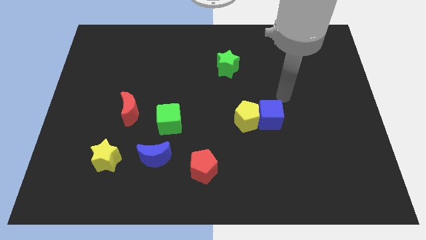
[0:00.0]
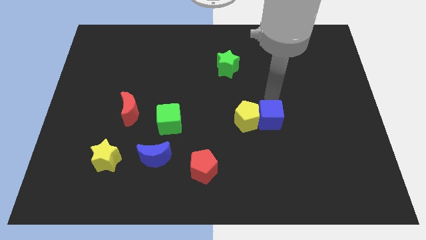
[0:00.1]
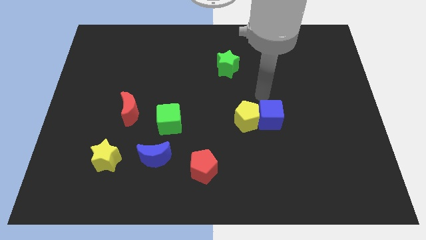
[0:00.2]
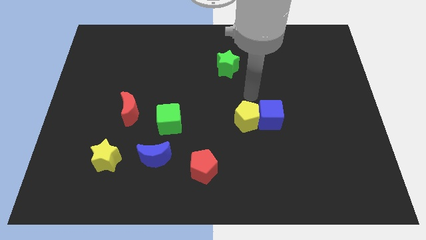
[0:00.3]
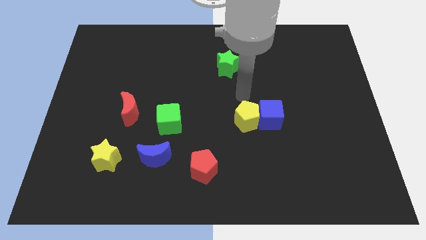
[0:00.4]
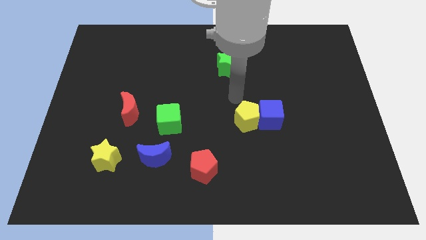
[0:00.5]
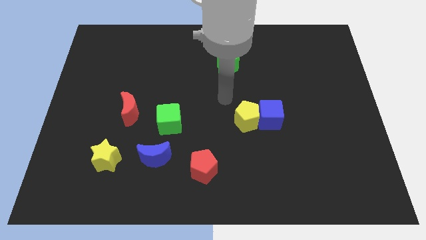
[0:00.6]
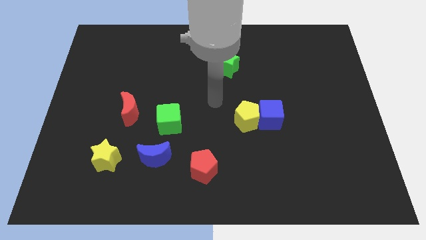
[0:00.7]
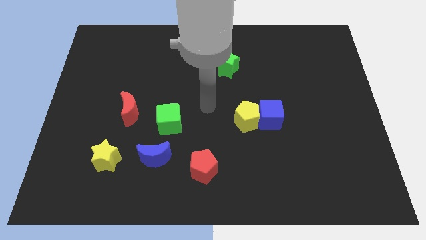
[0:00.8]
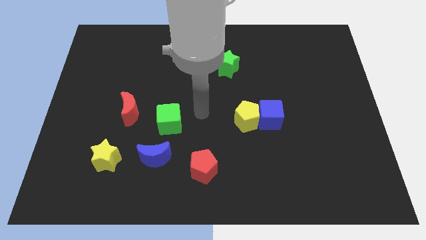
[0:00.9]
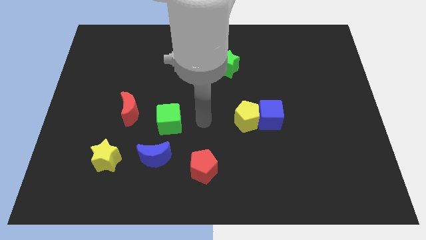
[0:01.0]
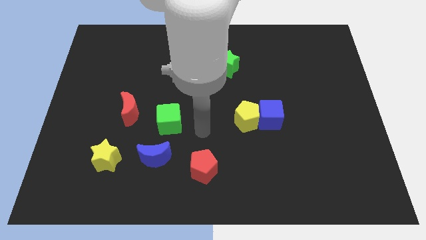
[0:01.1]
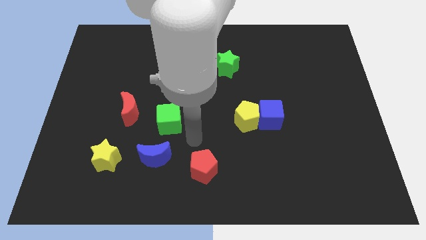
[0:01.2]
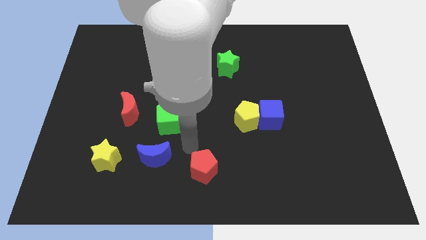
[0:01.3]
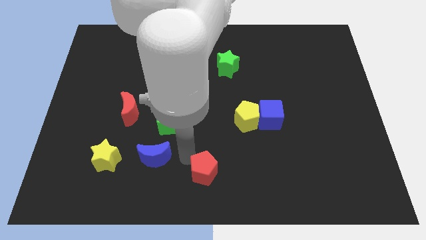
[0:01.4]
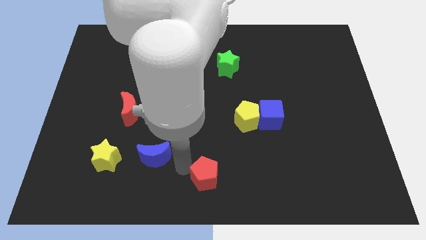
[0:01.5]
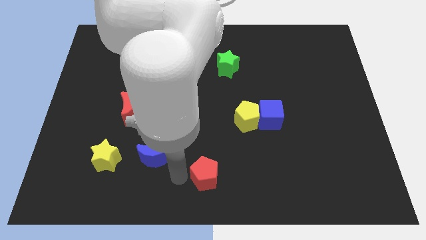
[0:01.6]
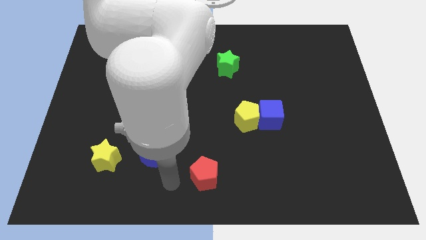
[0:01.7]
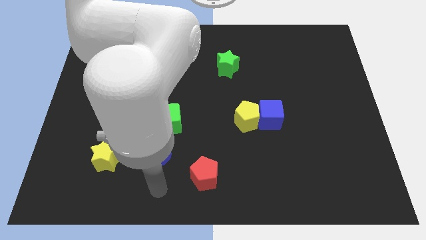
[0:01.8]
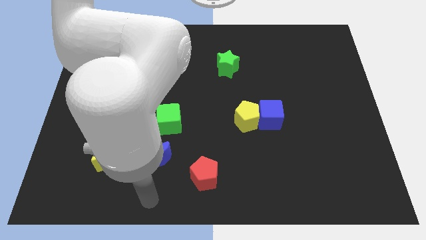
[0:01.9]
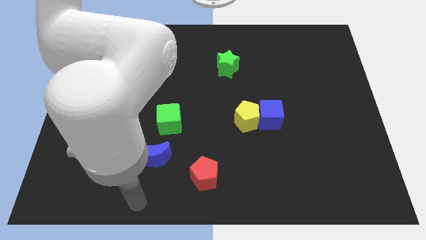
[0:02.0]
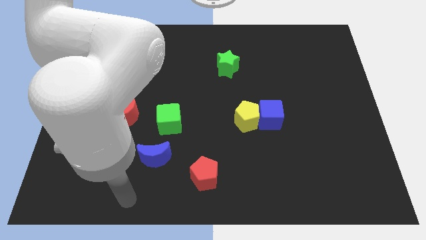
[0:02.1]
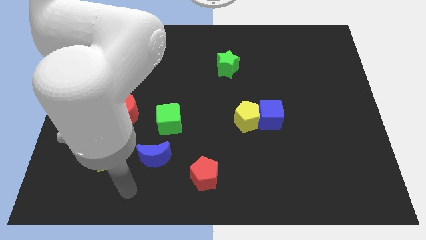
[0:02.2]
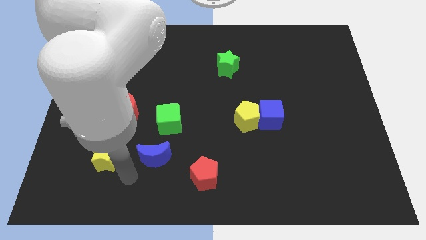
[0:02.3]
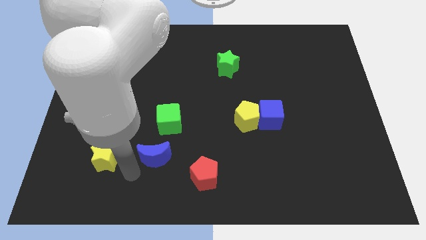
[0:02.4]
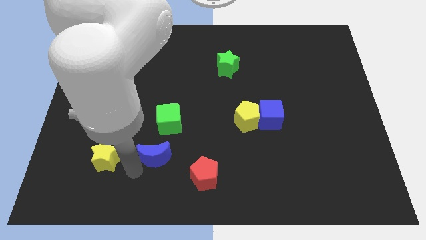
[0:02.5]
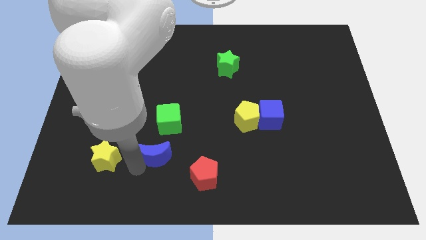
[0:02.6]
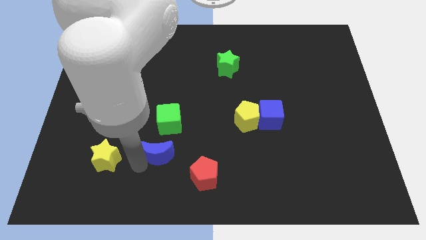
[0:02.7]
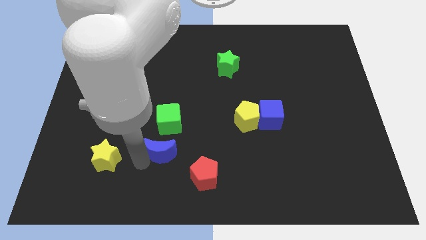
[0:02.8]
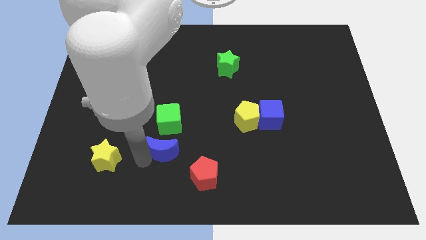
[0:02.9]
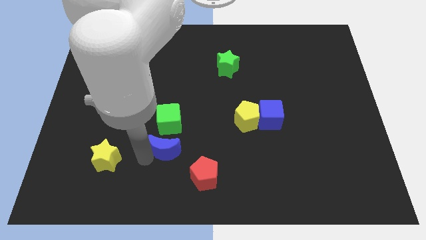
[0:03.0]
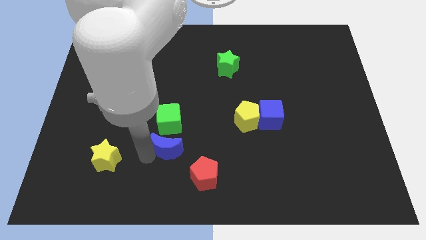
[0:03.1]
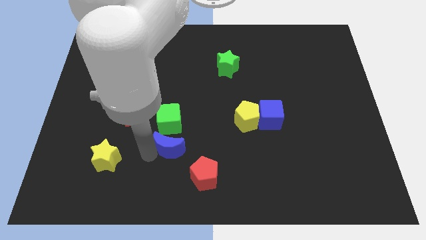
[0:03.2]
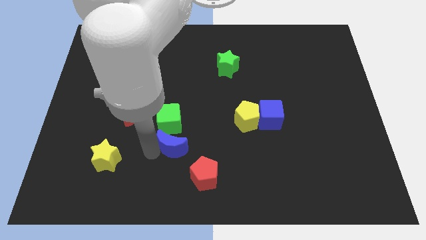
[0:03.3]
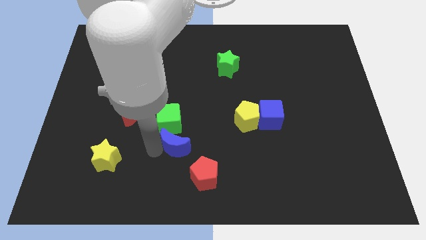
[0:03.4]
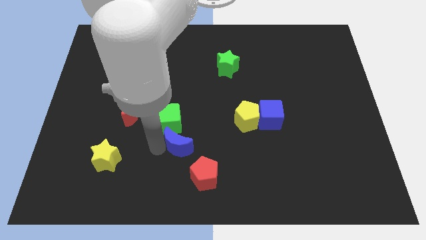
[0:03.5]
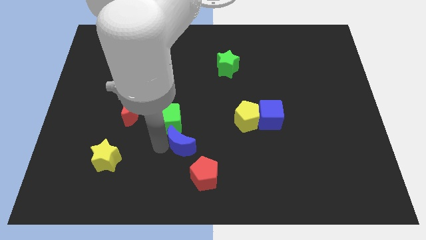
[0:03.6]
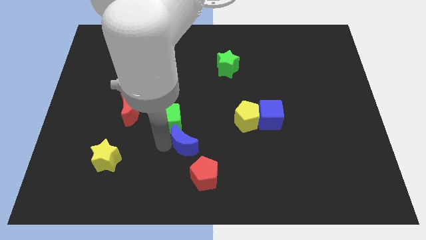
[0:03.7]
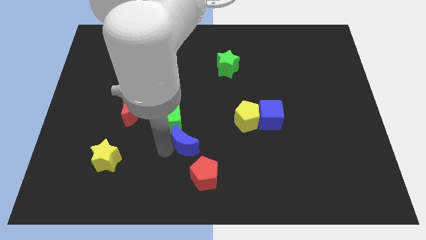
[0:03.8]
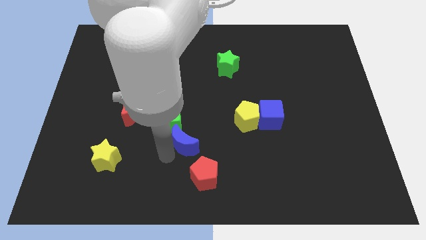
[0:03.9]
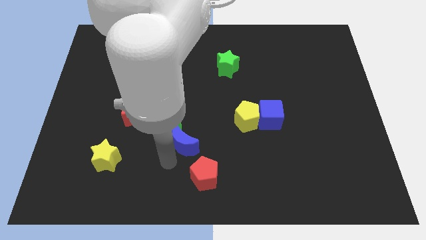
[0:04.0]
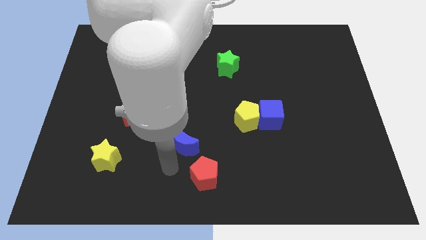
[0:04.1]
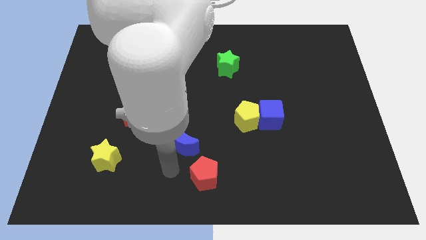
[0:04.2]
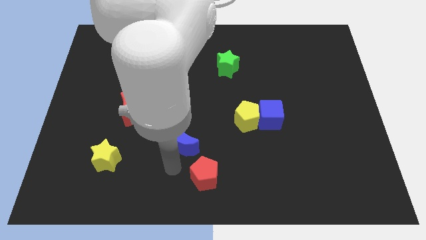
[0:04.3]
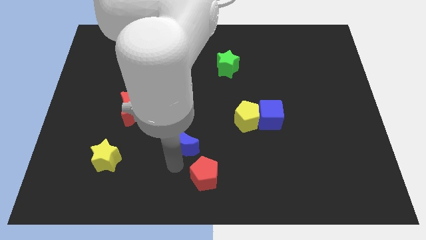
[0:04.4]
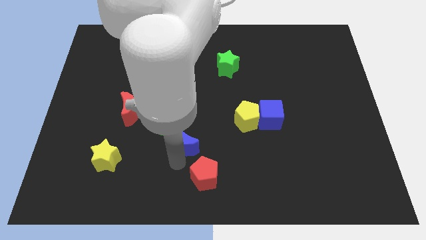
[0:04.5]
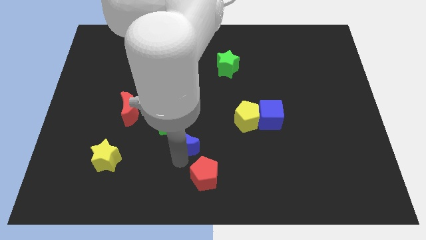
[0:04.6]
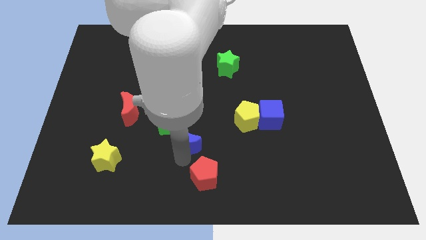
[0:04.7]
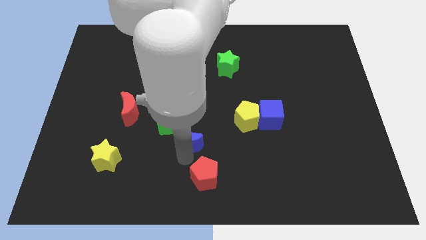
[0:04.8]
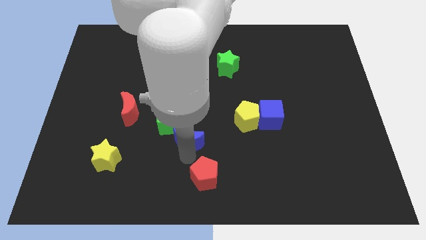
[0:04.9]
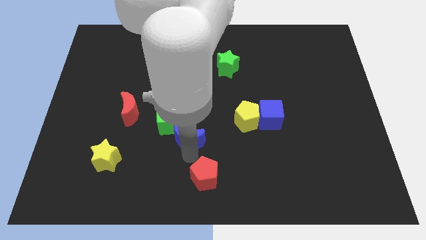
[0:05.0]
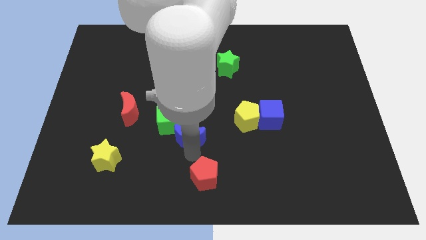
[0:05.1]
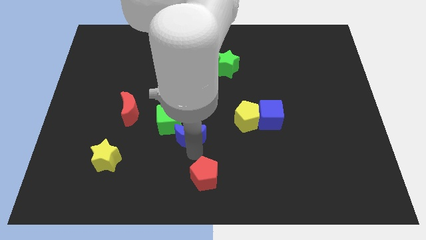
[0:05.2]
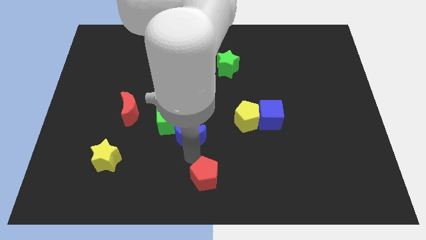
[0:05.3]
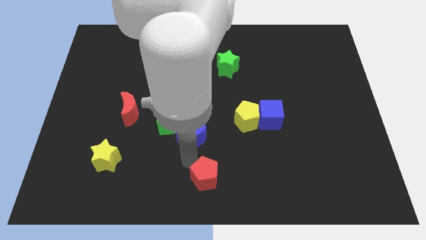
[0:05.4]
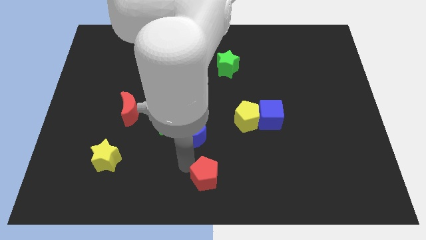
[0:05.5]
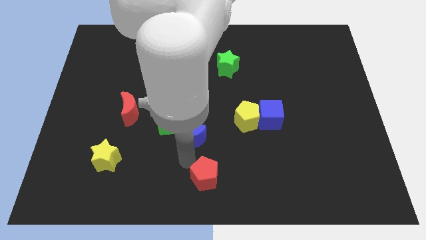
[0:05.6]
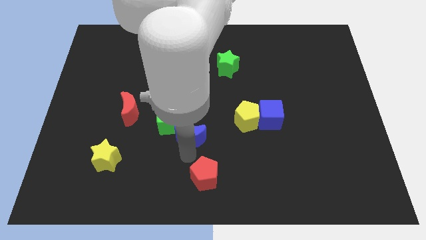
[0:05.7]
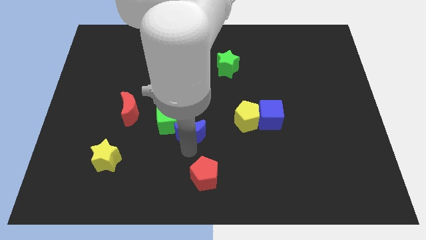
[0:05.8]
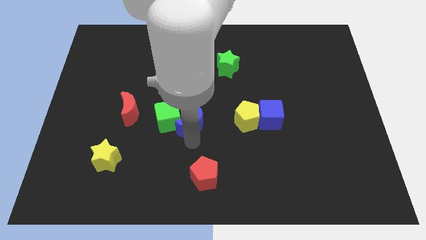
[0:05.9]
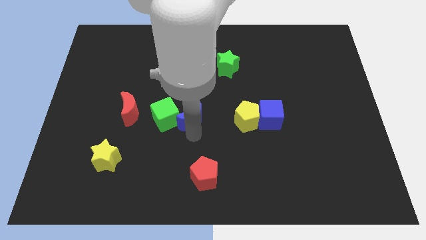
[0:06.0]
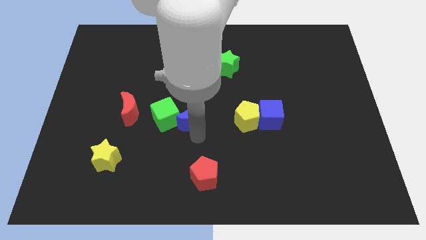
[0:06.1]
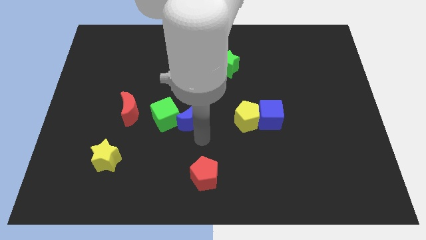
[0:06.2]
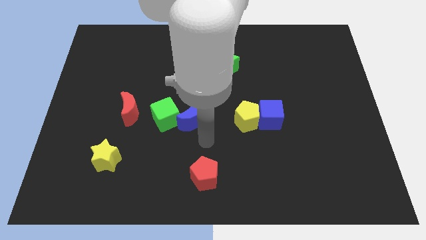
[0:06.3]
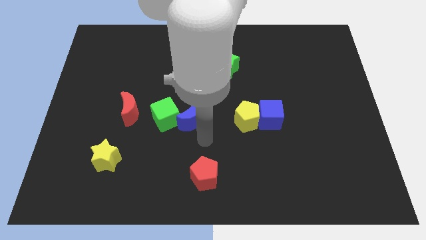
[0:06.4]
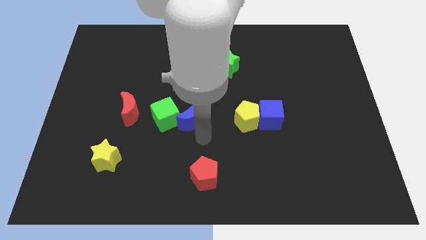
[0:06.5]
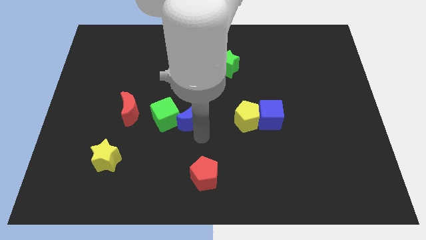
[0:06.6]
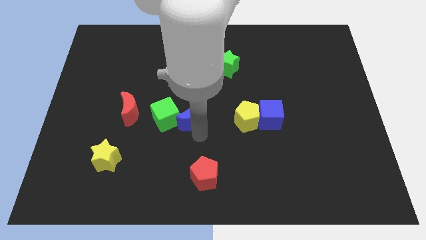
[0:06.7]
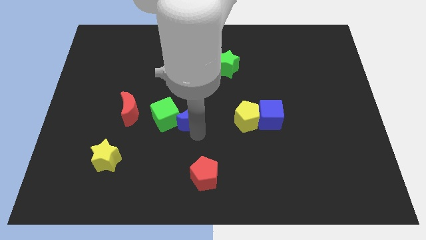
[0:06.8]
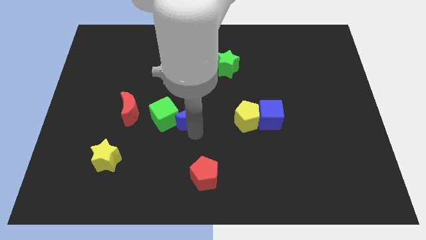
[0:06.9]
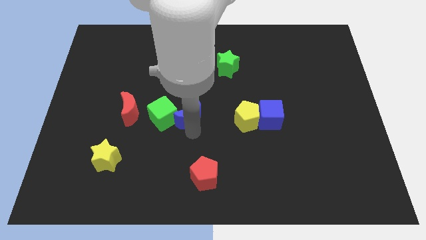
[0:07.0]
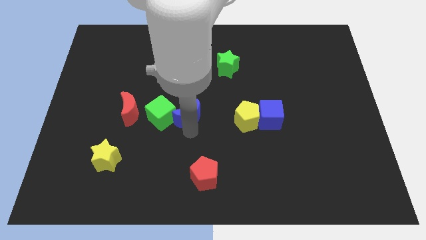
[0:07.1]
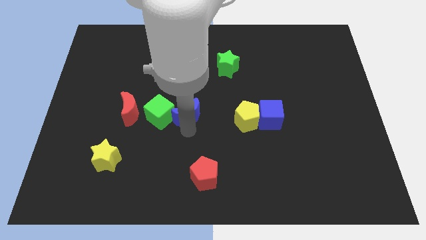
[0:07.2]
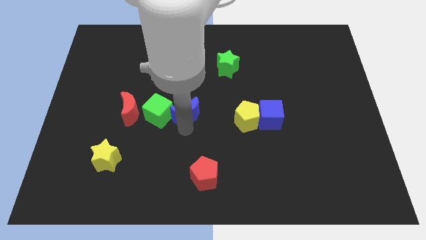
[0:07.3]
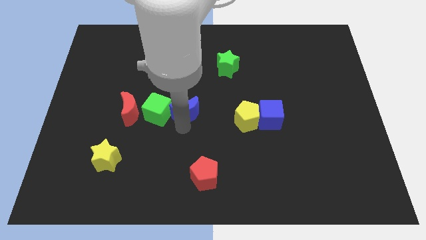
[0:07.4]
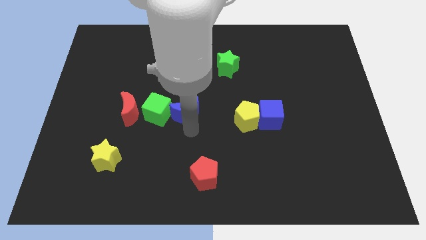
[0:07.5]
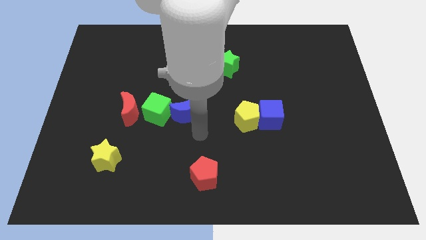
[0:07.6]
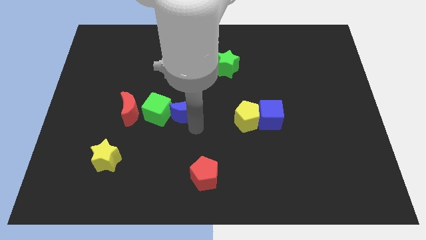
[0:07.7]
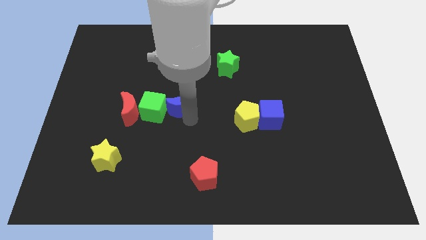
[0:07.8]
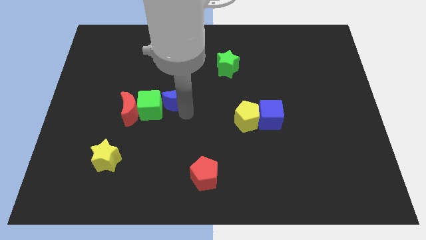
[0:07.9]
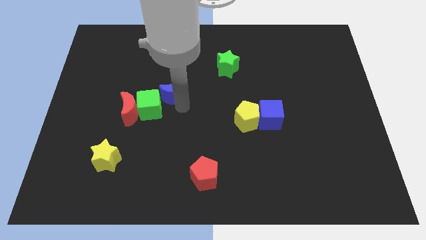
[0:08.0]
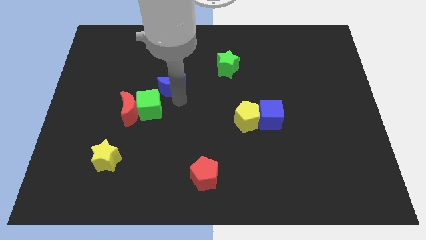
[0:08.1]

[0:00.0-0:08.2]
slide the blue moon to the top side of the green cube
